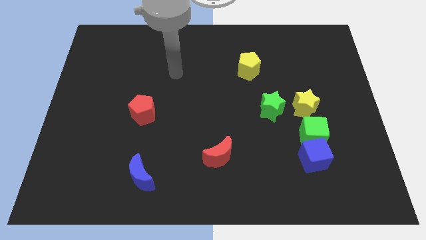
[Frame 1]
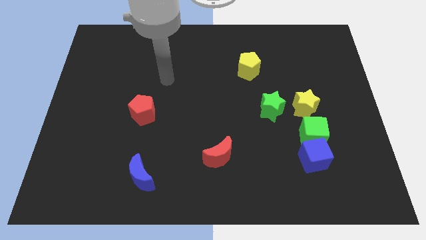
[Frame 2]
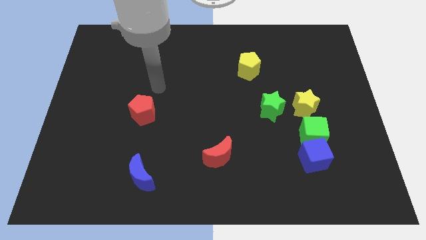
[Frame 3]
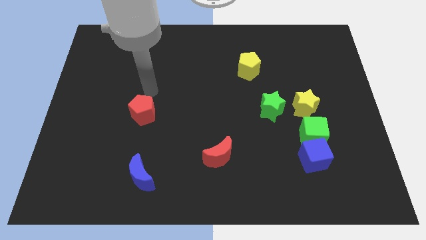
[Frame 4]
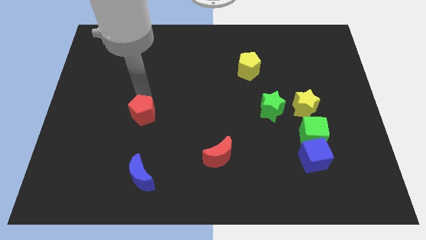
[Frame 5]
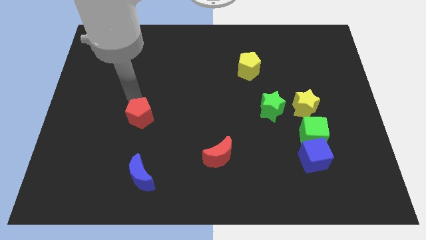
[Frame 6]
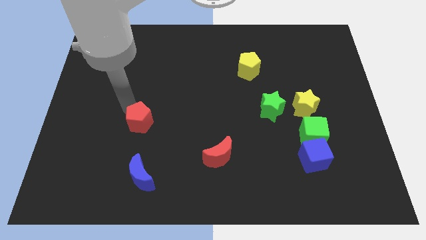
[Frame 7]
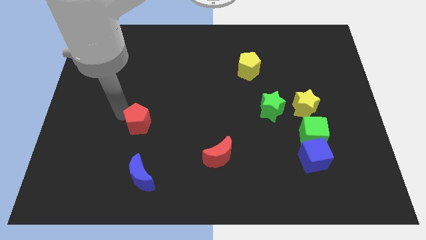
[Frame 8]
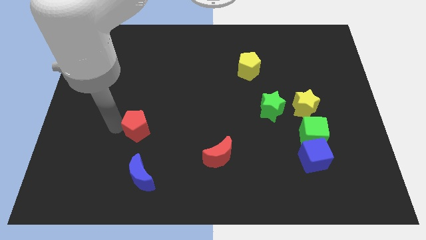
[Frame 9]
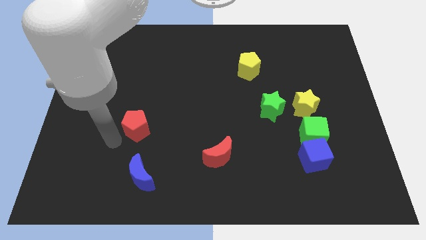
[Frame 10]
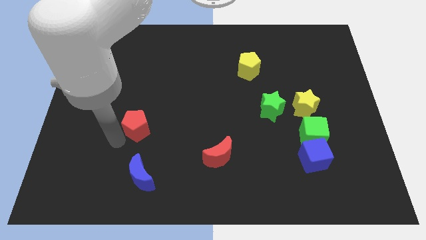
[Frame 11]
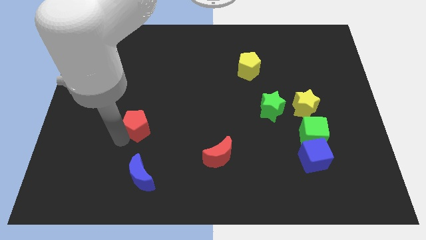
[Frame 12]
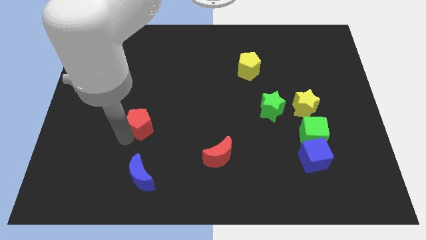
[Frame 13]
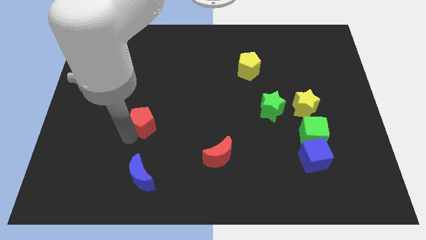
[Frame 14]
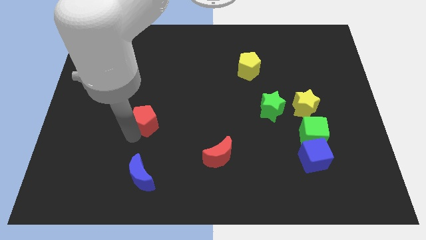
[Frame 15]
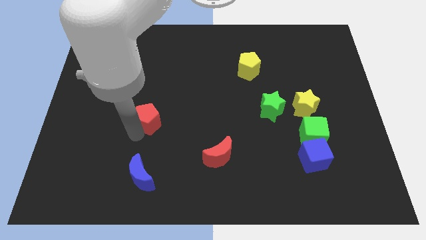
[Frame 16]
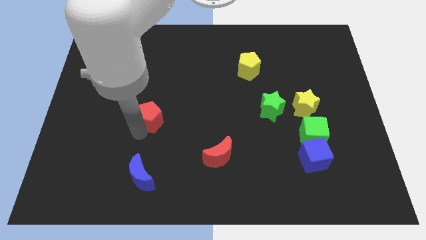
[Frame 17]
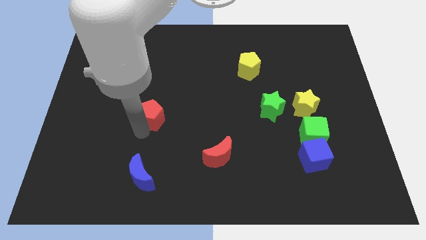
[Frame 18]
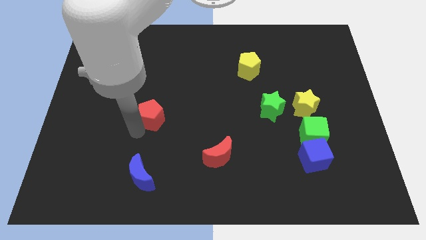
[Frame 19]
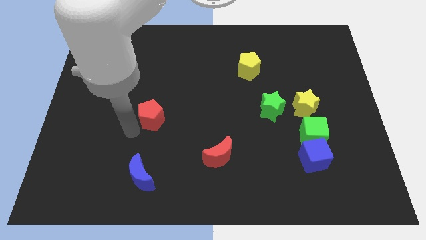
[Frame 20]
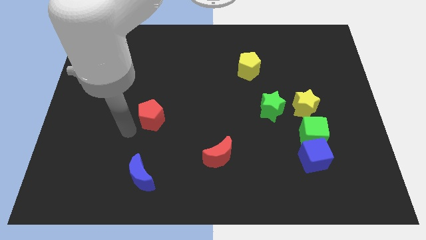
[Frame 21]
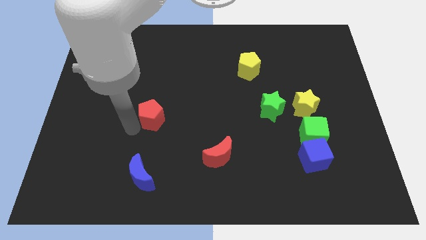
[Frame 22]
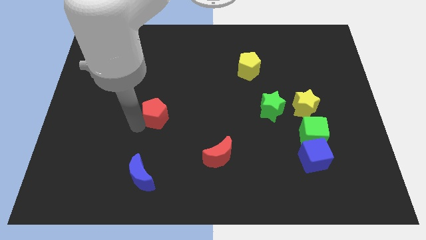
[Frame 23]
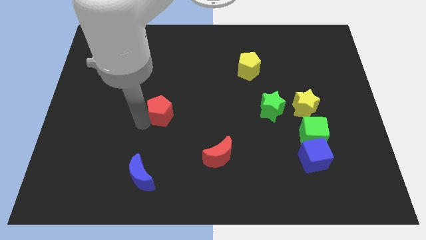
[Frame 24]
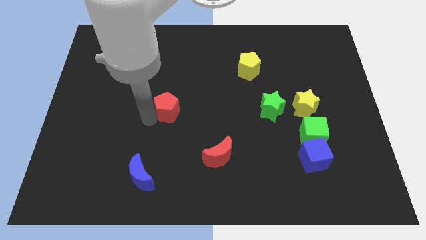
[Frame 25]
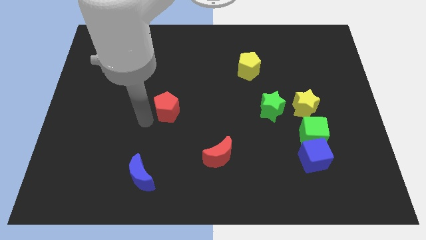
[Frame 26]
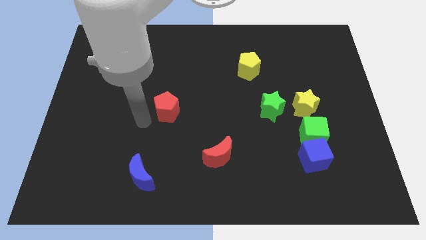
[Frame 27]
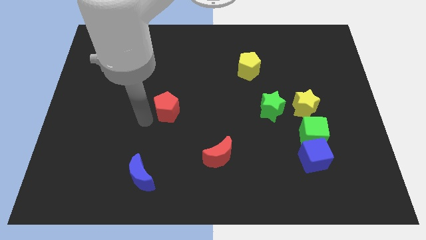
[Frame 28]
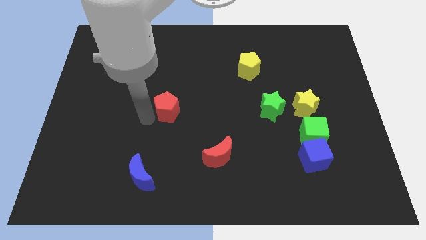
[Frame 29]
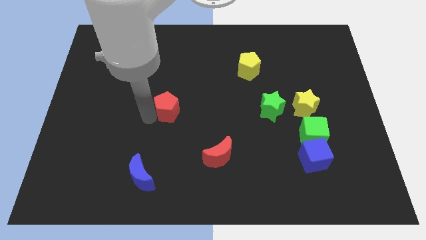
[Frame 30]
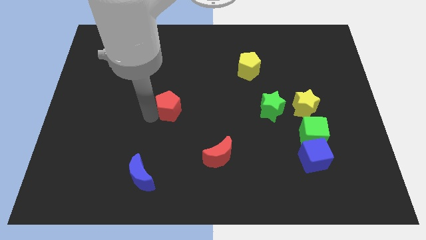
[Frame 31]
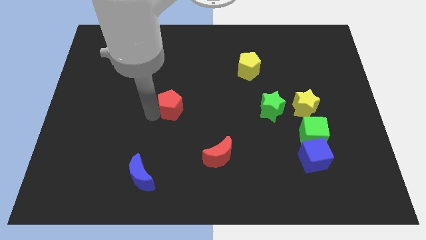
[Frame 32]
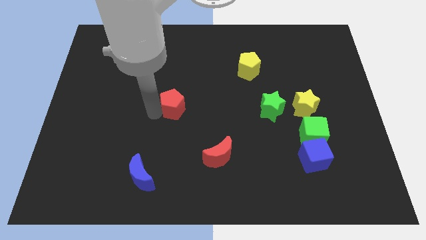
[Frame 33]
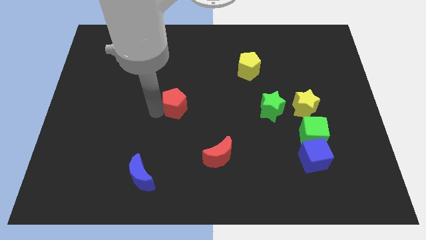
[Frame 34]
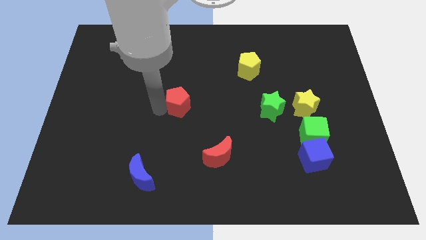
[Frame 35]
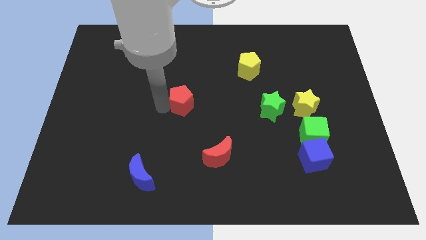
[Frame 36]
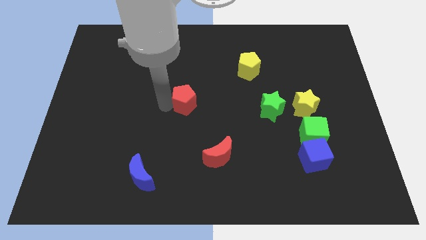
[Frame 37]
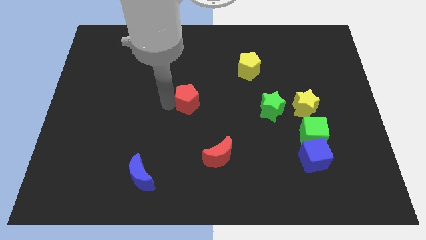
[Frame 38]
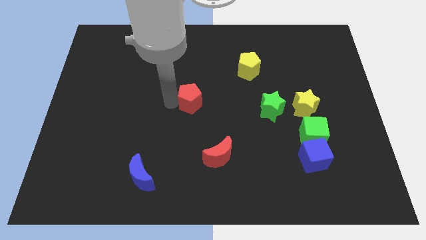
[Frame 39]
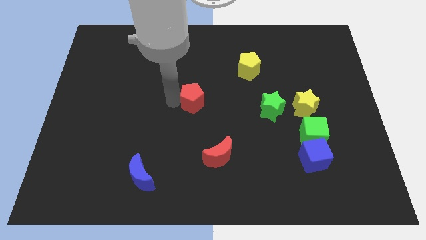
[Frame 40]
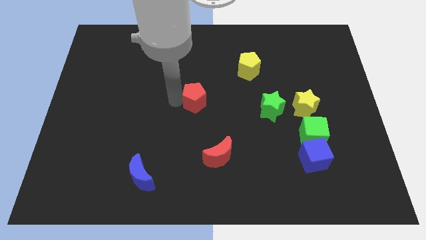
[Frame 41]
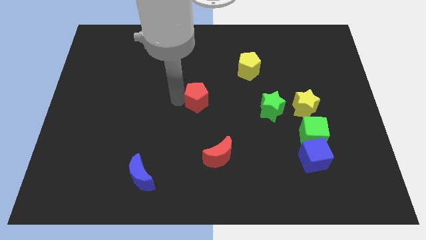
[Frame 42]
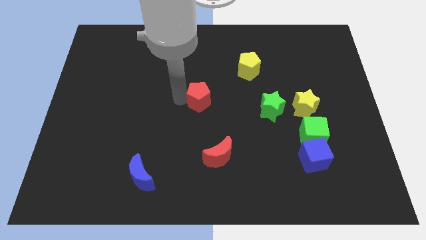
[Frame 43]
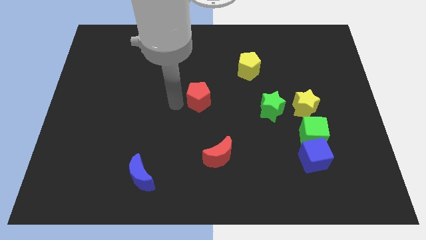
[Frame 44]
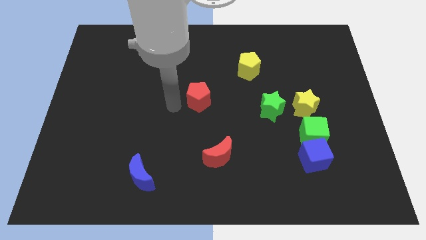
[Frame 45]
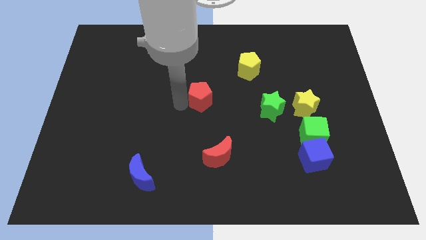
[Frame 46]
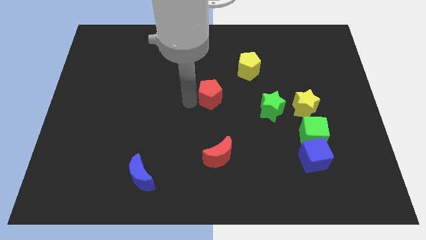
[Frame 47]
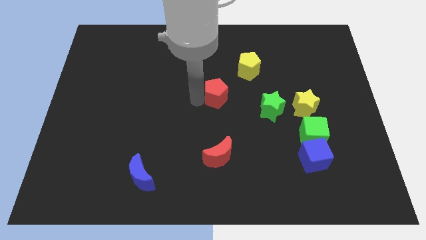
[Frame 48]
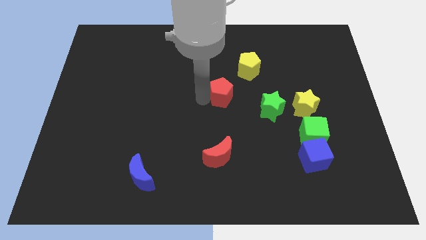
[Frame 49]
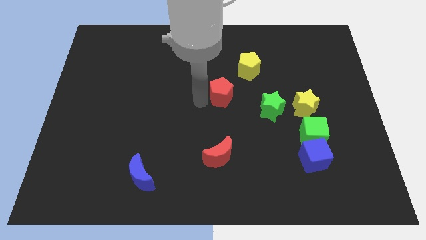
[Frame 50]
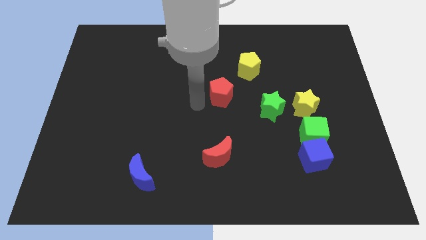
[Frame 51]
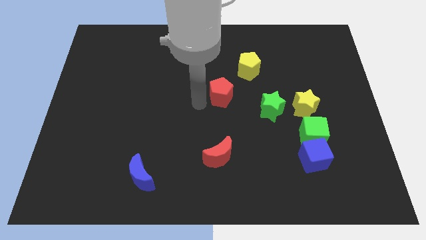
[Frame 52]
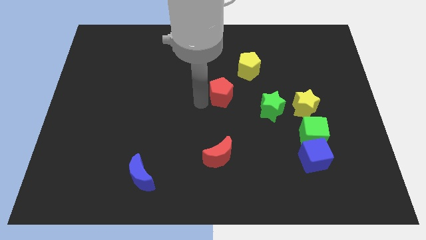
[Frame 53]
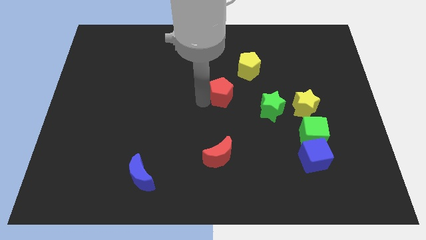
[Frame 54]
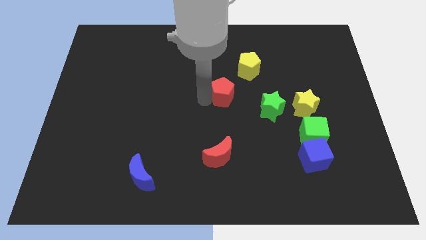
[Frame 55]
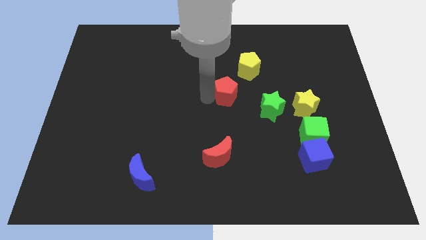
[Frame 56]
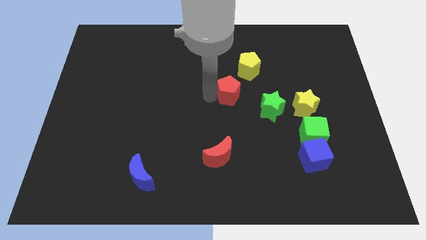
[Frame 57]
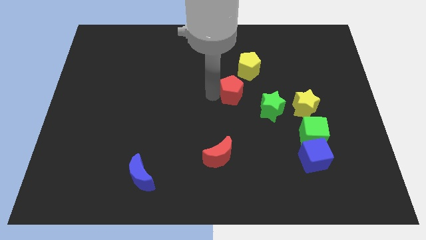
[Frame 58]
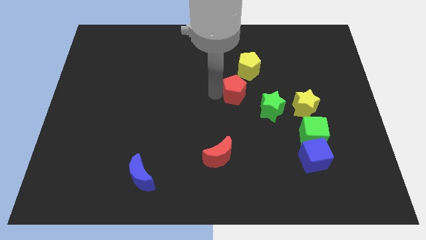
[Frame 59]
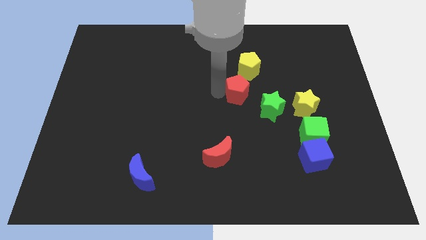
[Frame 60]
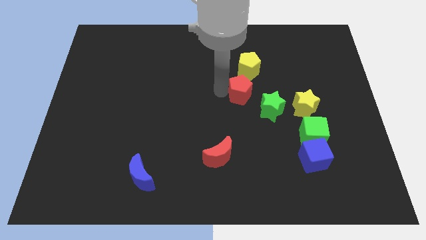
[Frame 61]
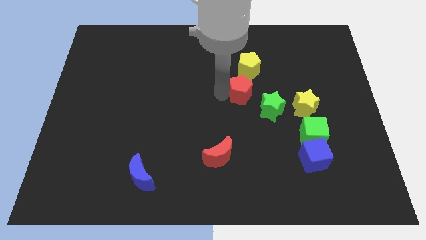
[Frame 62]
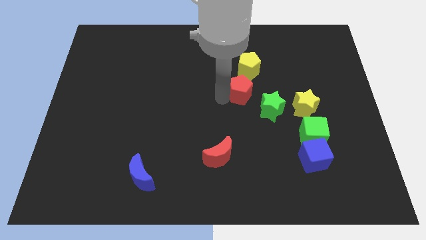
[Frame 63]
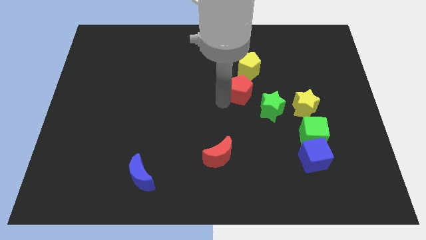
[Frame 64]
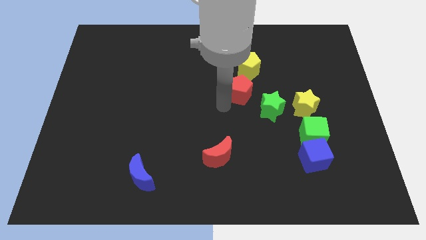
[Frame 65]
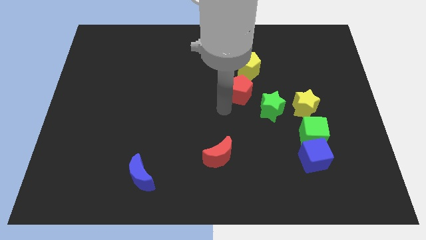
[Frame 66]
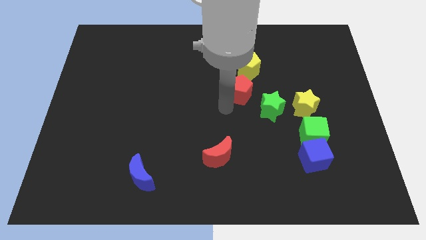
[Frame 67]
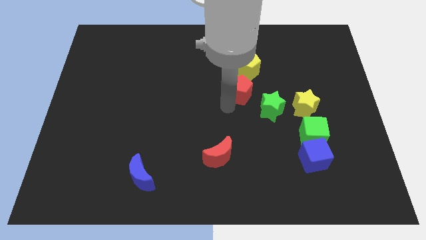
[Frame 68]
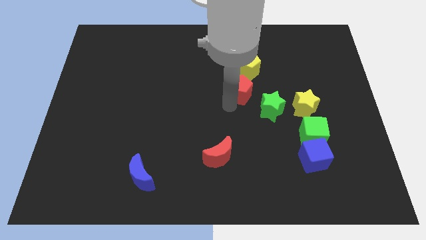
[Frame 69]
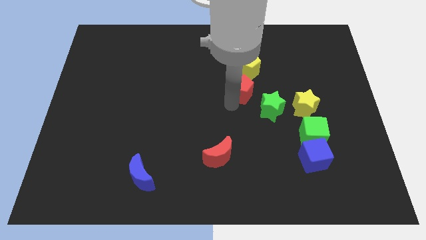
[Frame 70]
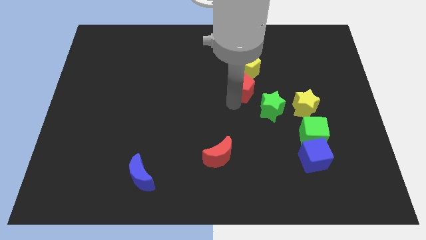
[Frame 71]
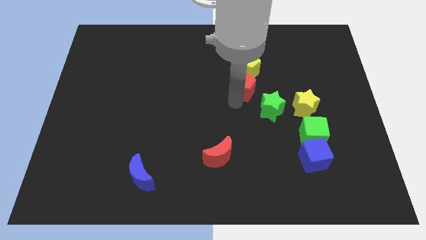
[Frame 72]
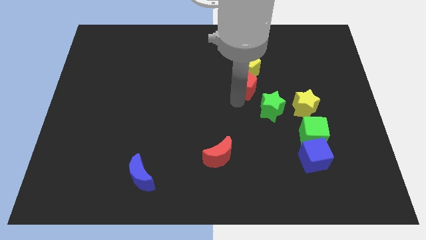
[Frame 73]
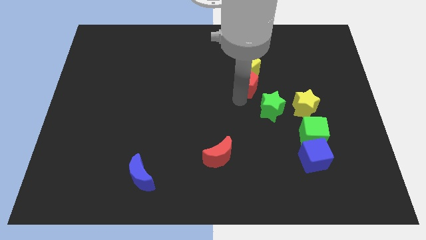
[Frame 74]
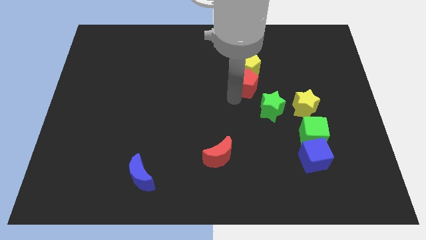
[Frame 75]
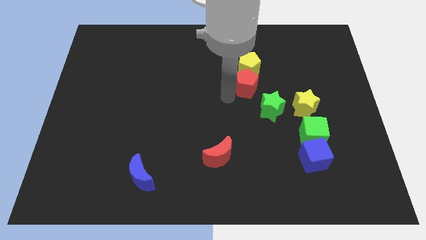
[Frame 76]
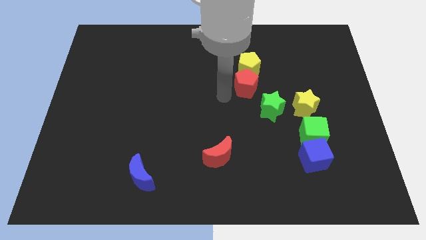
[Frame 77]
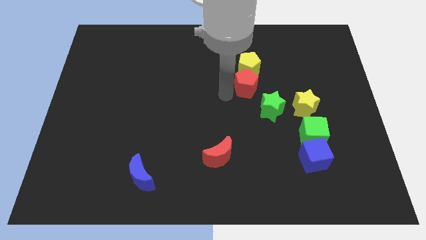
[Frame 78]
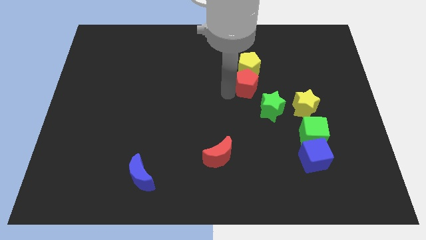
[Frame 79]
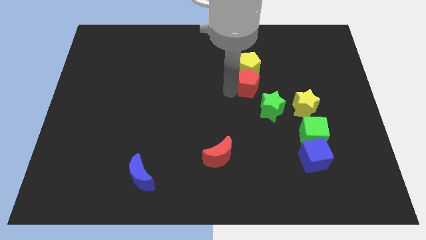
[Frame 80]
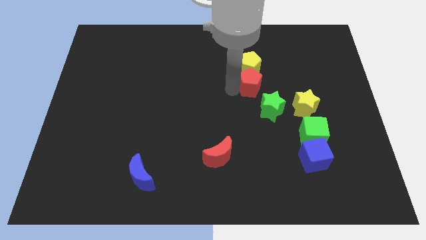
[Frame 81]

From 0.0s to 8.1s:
push the red pentagon above the green star

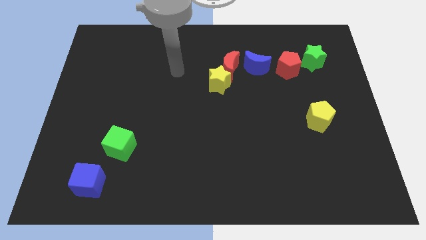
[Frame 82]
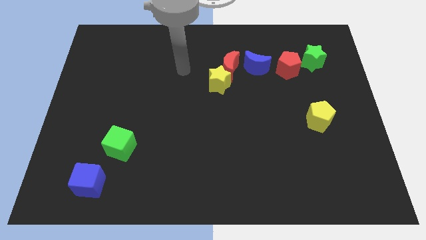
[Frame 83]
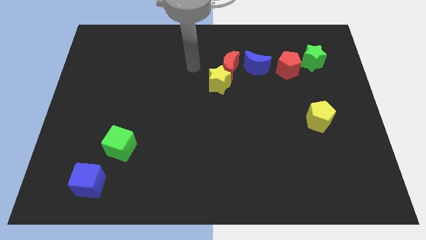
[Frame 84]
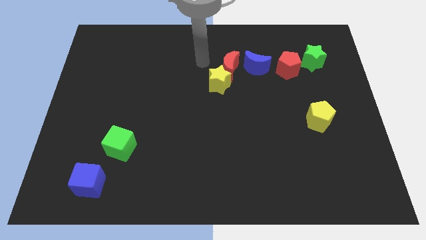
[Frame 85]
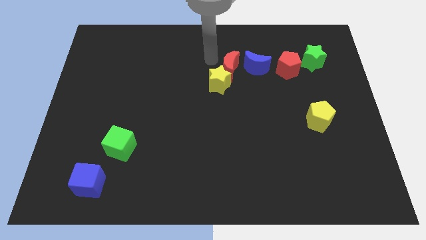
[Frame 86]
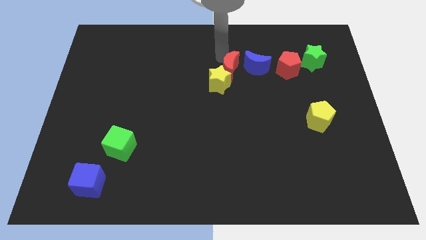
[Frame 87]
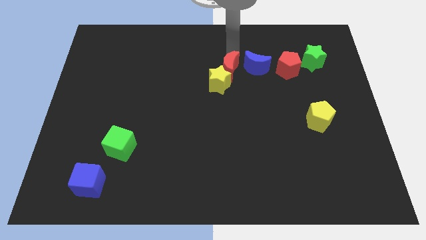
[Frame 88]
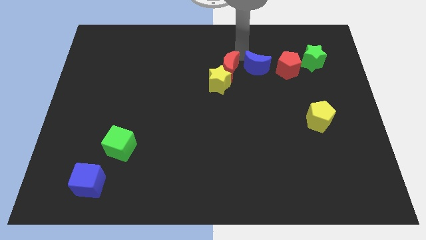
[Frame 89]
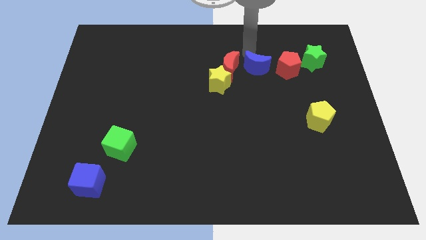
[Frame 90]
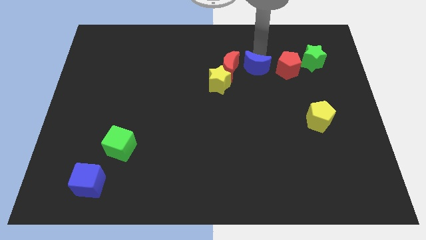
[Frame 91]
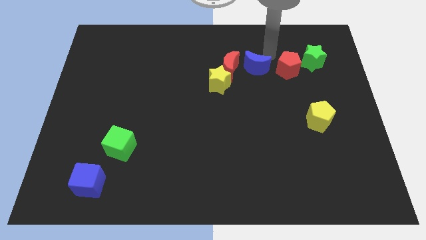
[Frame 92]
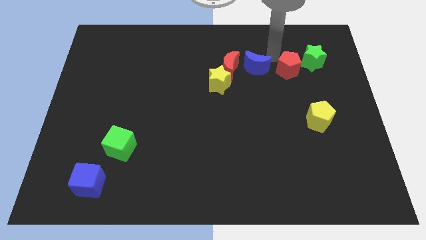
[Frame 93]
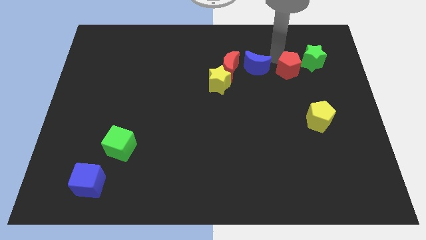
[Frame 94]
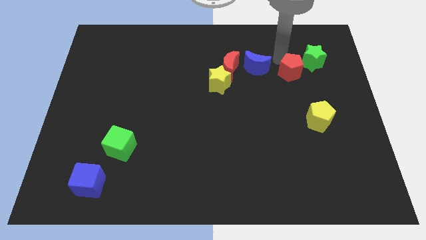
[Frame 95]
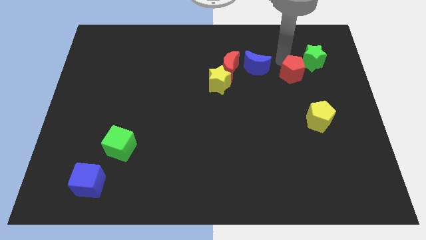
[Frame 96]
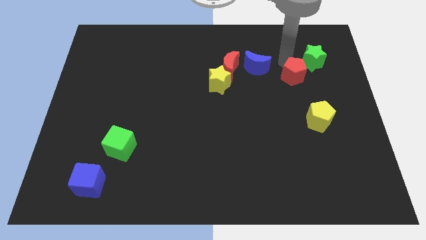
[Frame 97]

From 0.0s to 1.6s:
push the red pentagon to the top of the yellow pentagon
